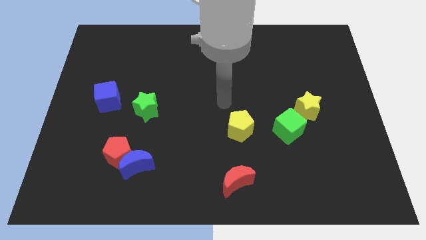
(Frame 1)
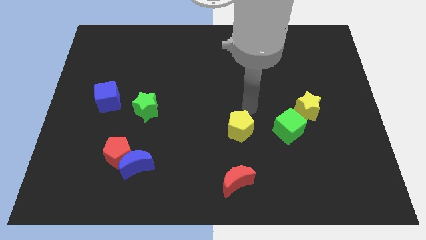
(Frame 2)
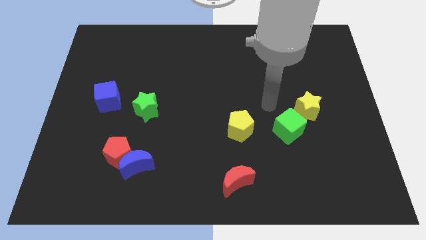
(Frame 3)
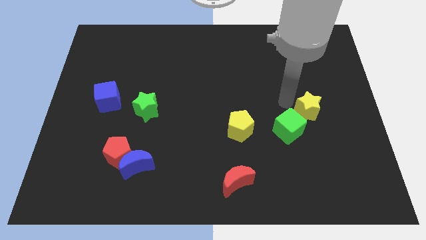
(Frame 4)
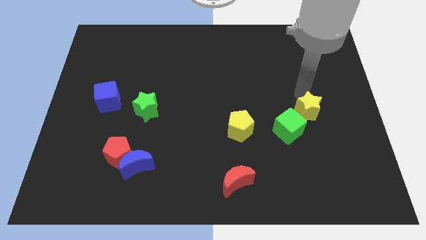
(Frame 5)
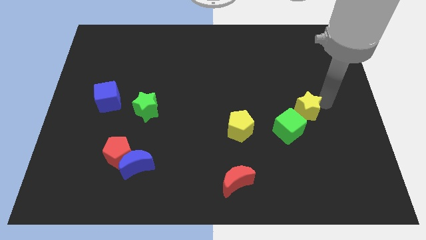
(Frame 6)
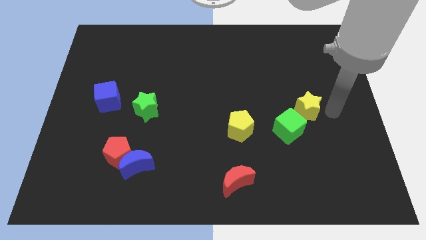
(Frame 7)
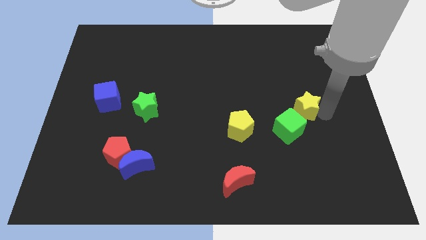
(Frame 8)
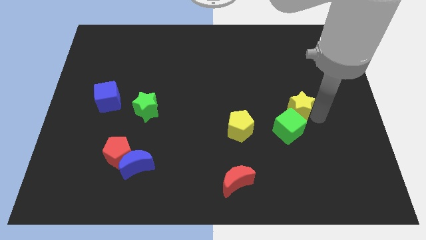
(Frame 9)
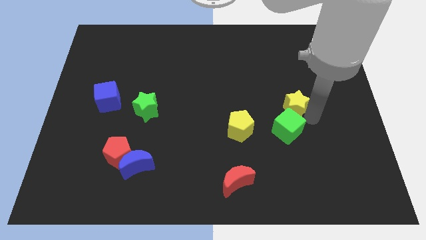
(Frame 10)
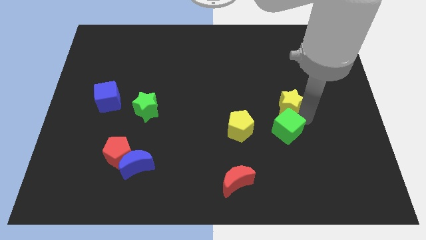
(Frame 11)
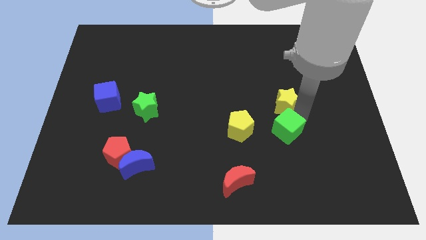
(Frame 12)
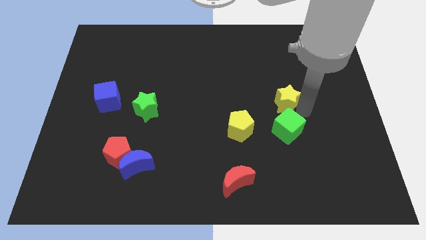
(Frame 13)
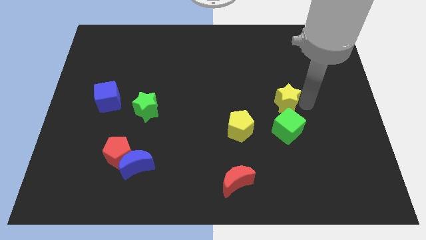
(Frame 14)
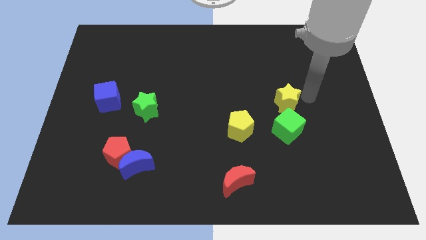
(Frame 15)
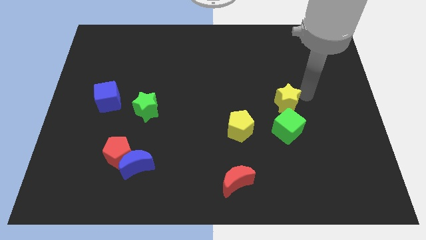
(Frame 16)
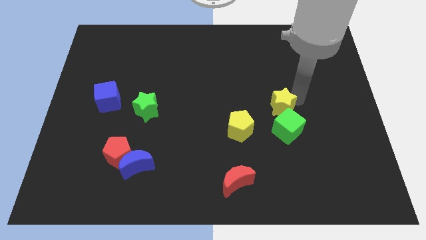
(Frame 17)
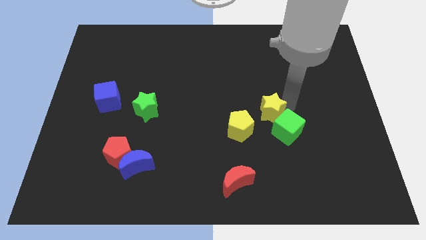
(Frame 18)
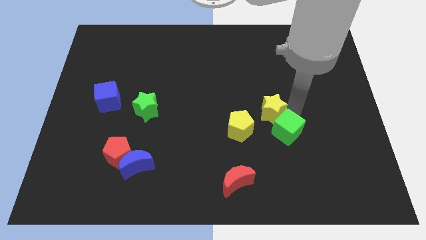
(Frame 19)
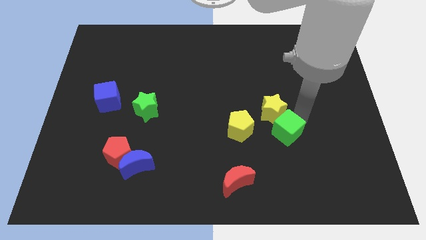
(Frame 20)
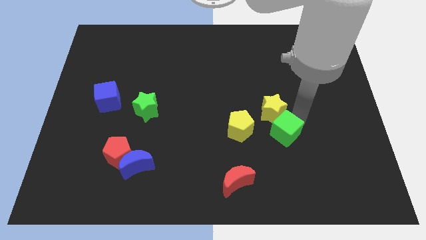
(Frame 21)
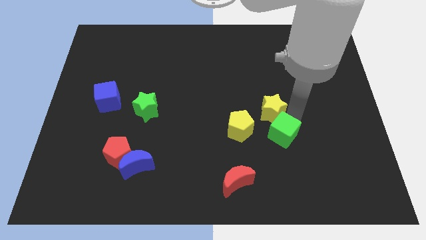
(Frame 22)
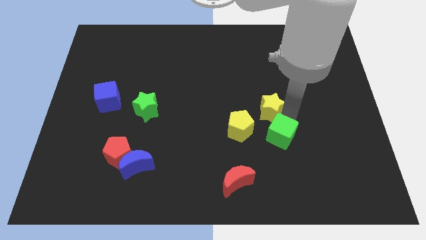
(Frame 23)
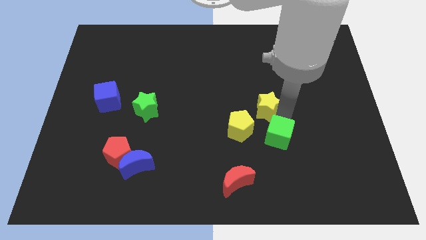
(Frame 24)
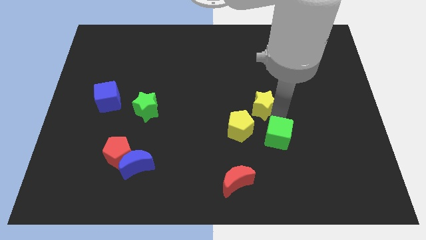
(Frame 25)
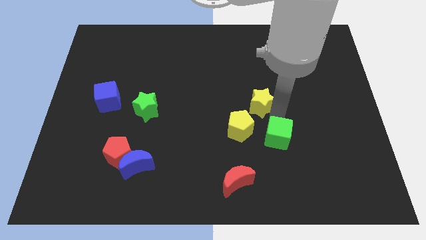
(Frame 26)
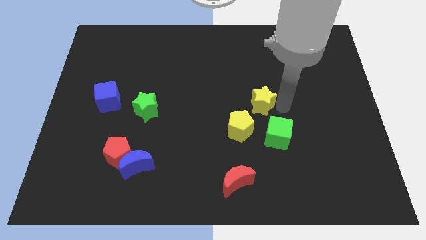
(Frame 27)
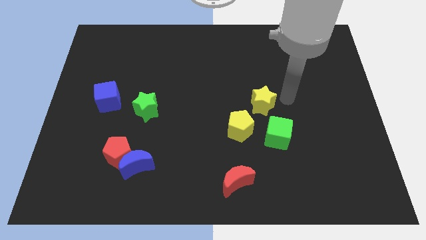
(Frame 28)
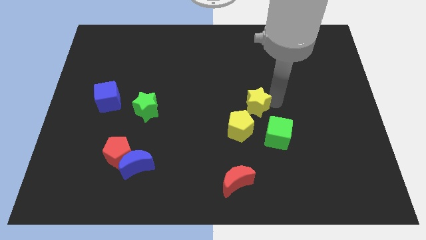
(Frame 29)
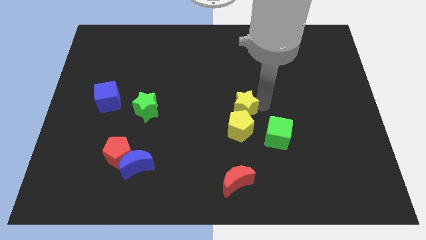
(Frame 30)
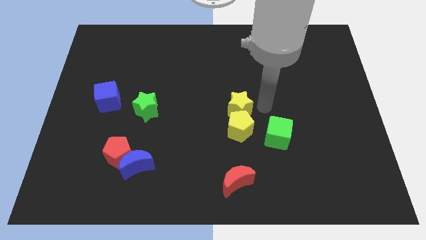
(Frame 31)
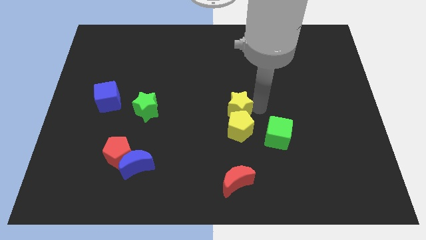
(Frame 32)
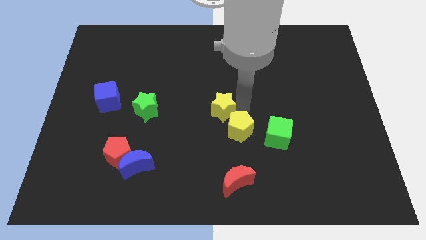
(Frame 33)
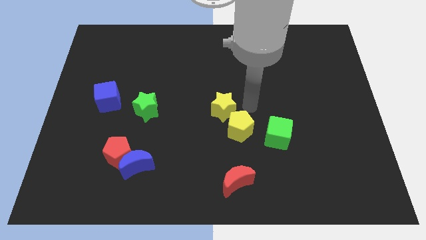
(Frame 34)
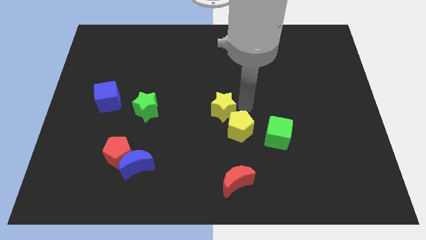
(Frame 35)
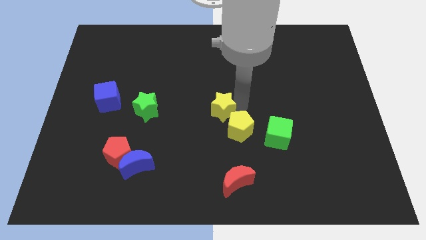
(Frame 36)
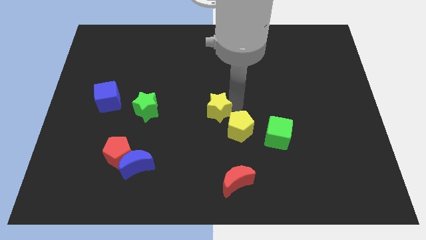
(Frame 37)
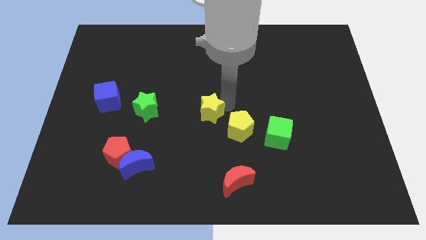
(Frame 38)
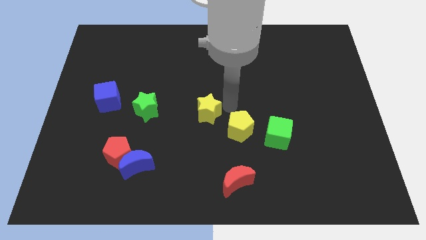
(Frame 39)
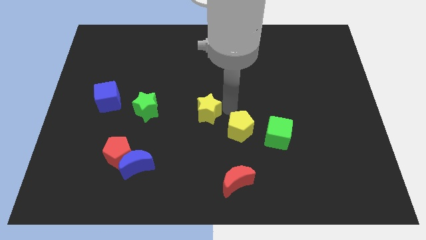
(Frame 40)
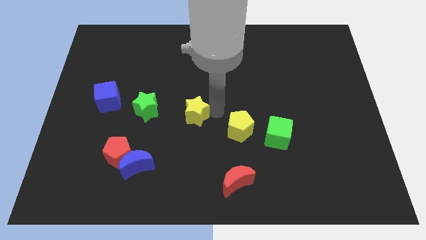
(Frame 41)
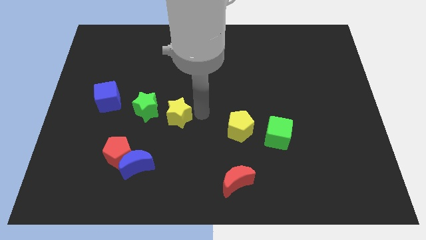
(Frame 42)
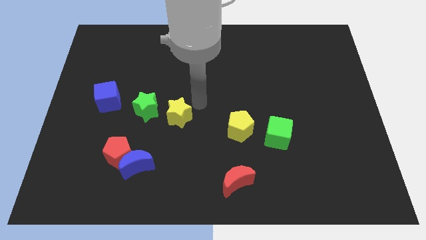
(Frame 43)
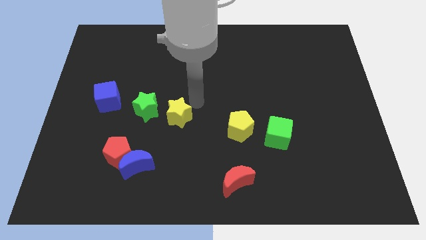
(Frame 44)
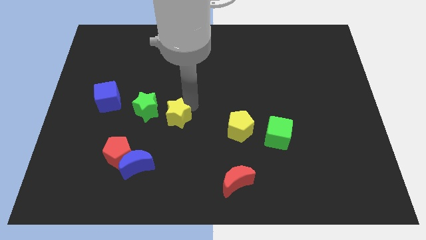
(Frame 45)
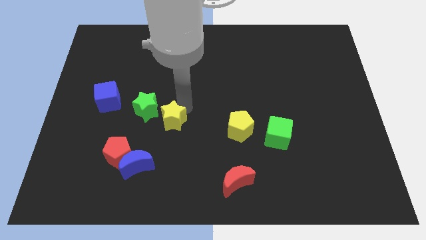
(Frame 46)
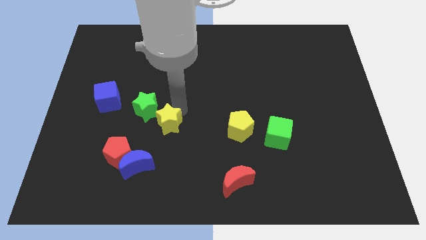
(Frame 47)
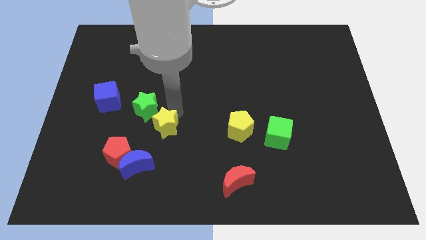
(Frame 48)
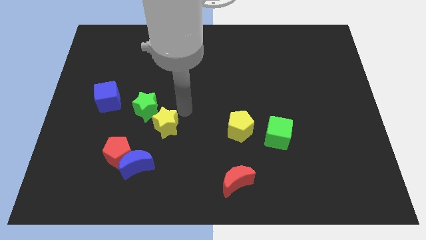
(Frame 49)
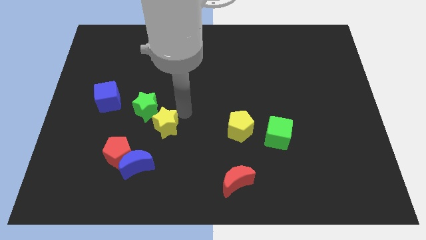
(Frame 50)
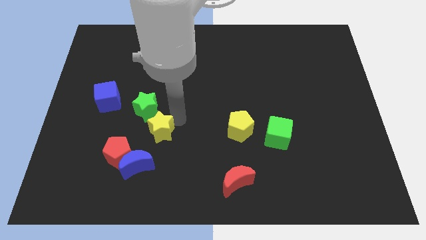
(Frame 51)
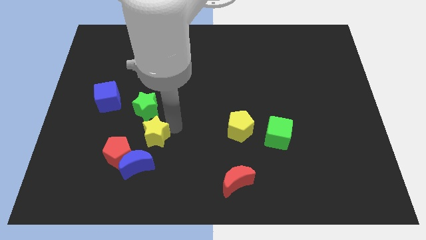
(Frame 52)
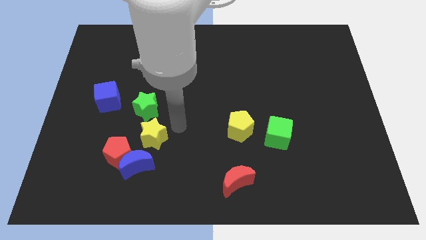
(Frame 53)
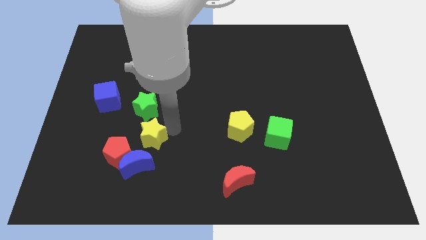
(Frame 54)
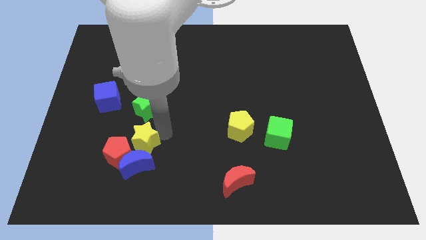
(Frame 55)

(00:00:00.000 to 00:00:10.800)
put the yellow star towards the red pentagon

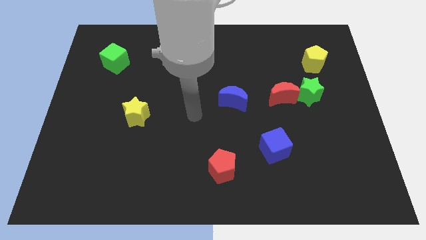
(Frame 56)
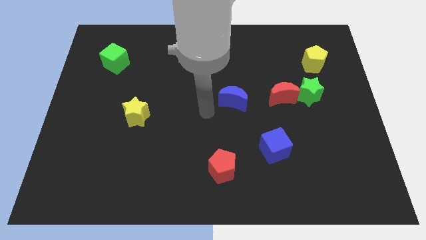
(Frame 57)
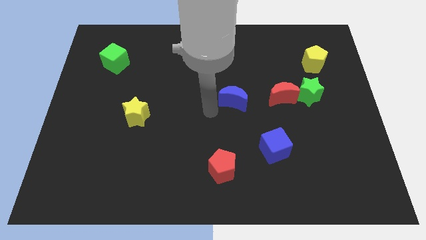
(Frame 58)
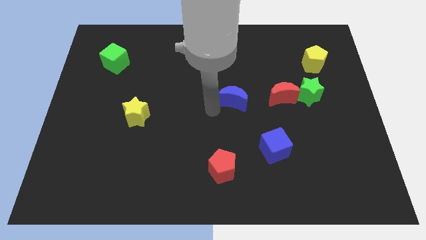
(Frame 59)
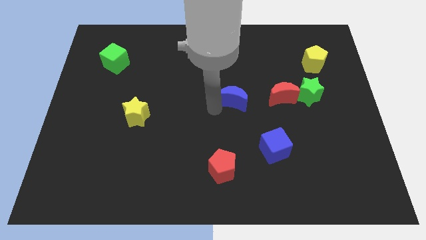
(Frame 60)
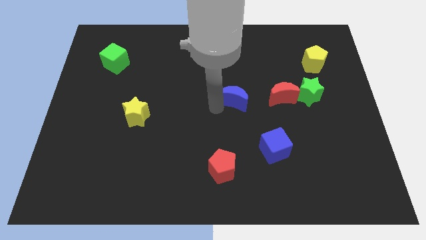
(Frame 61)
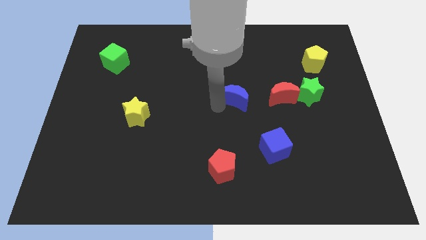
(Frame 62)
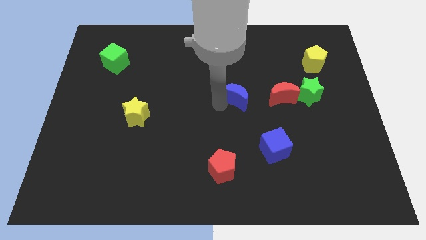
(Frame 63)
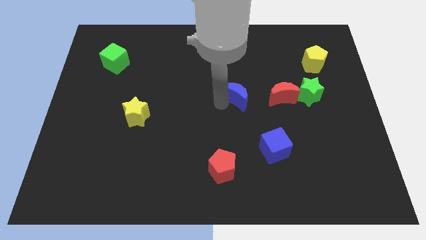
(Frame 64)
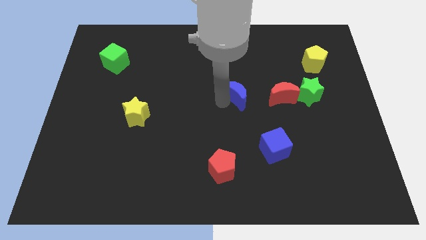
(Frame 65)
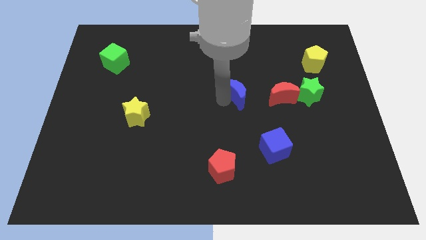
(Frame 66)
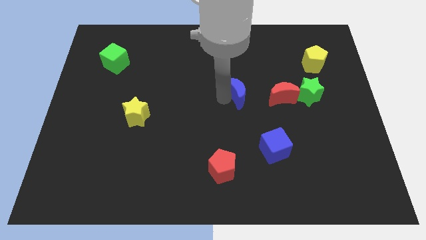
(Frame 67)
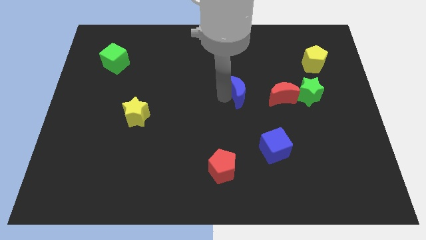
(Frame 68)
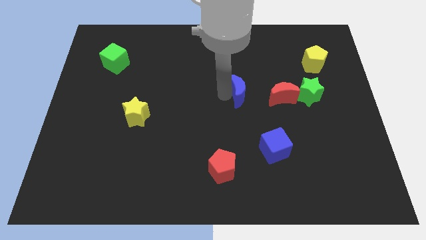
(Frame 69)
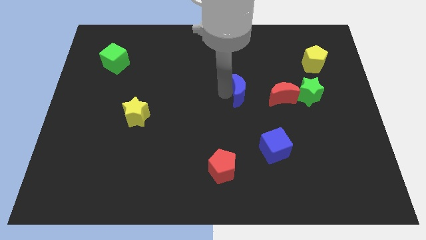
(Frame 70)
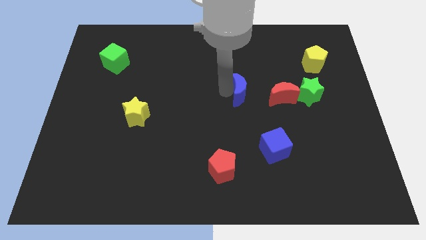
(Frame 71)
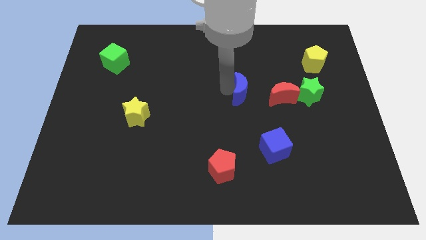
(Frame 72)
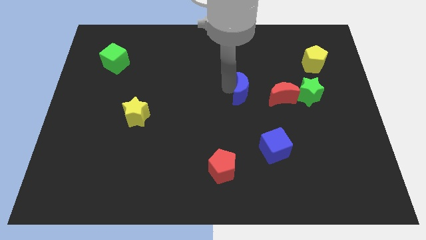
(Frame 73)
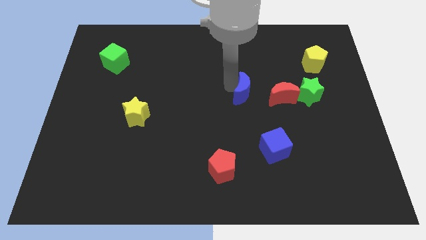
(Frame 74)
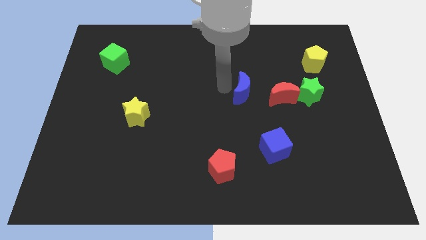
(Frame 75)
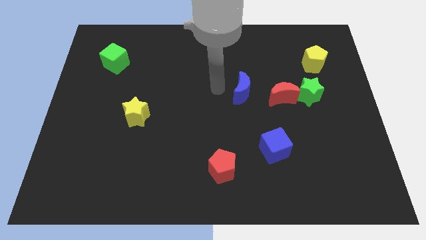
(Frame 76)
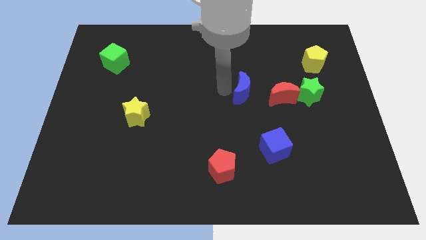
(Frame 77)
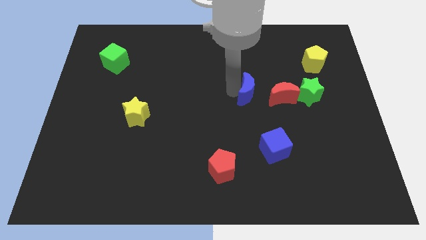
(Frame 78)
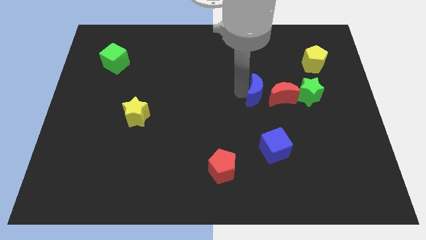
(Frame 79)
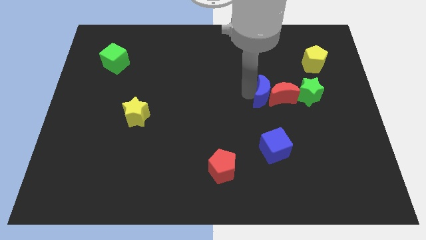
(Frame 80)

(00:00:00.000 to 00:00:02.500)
put the blue moon close to the red moon

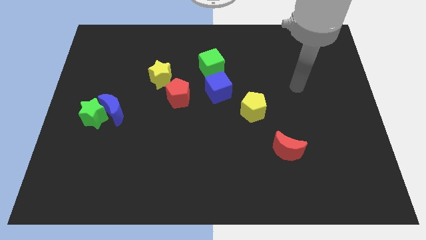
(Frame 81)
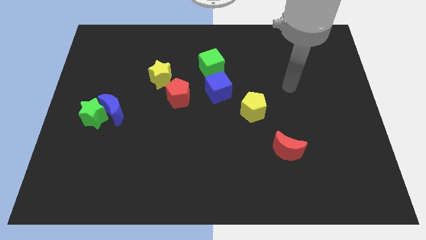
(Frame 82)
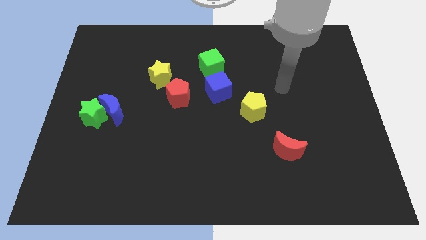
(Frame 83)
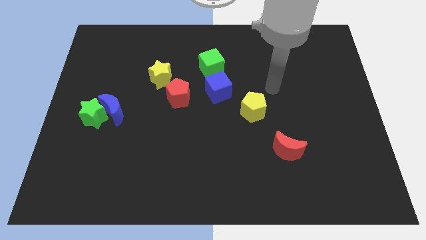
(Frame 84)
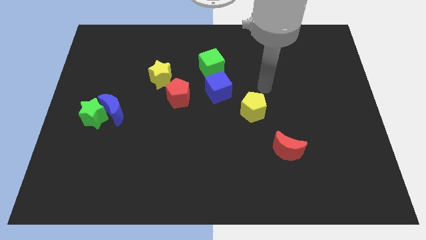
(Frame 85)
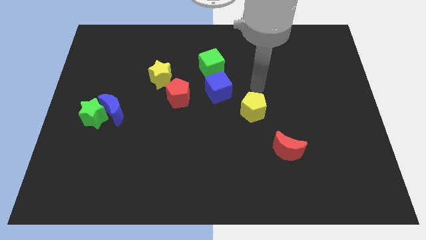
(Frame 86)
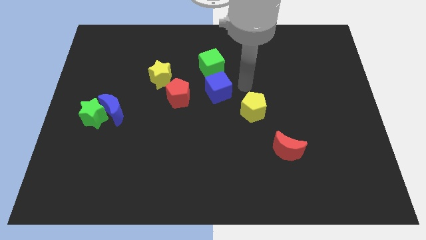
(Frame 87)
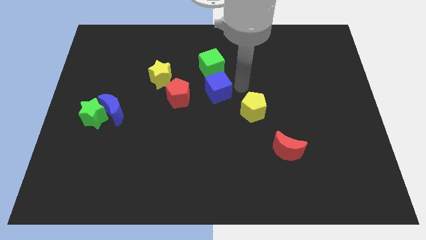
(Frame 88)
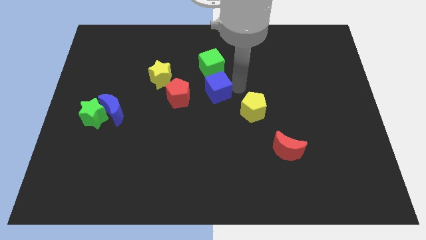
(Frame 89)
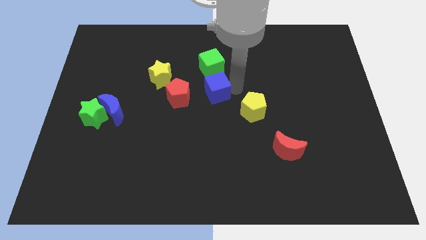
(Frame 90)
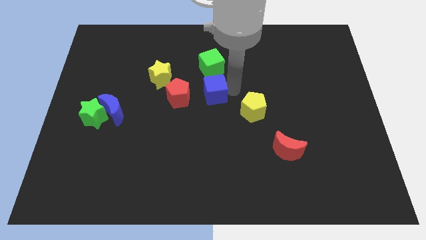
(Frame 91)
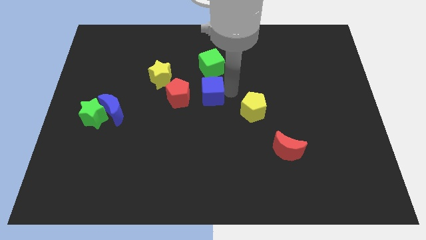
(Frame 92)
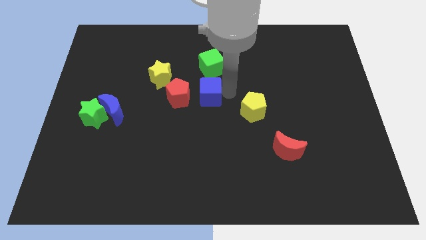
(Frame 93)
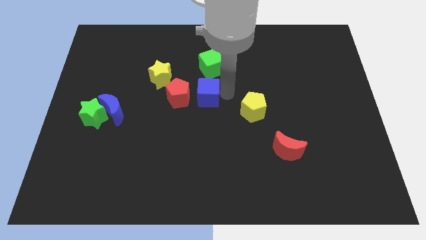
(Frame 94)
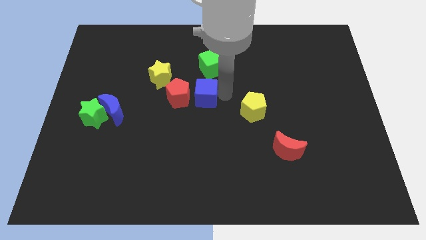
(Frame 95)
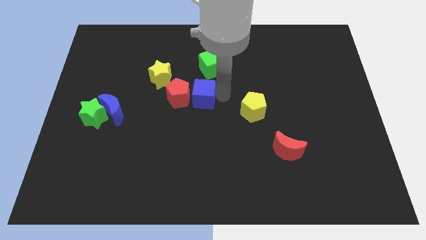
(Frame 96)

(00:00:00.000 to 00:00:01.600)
slide the blue cube close to the red pentagon
